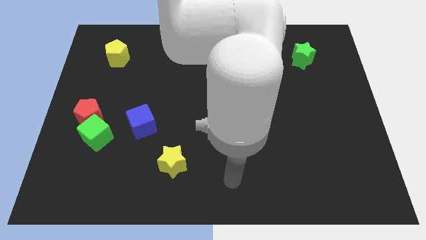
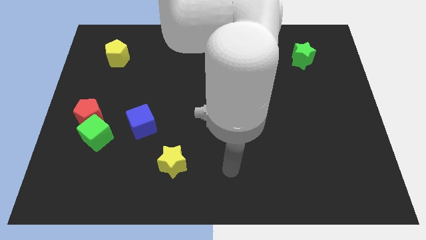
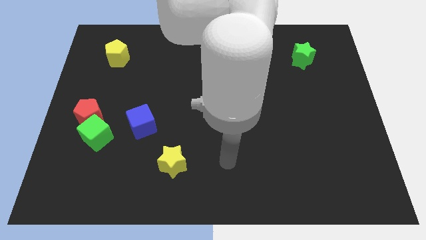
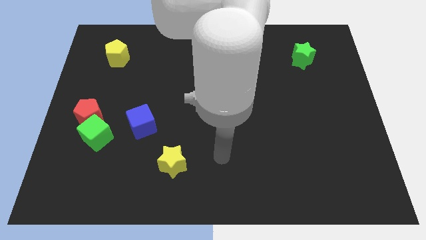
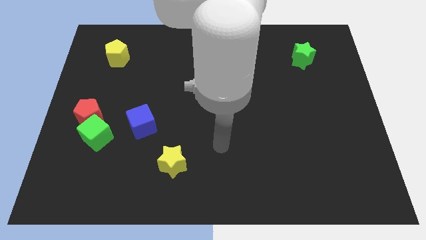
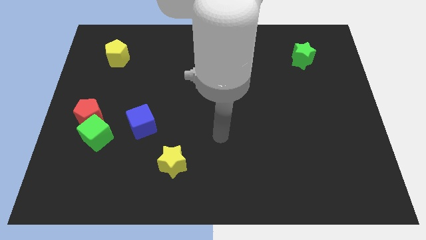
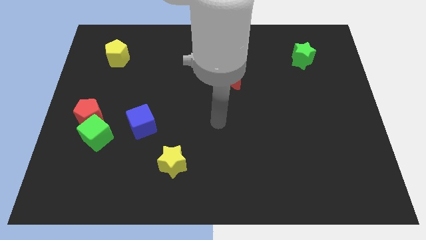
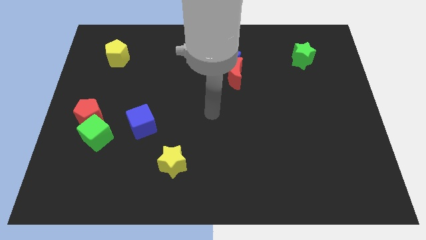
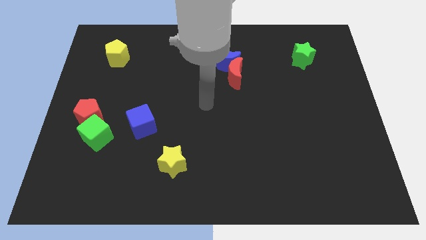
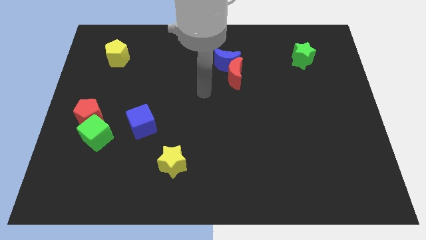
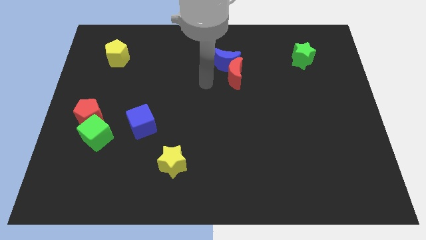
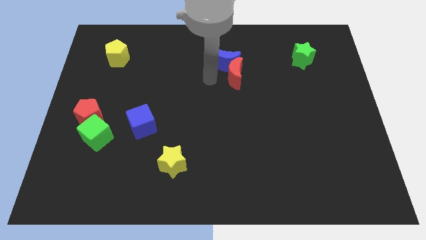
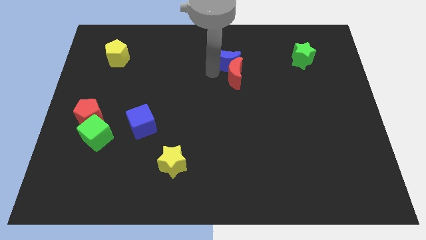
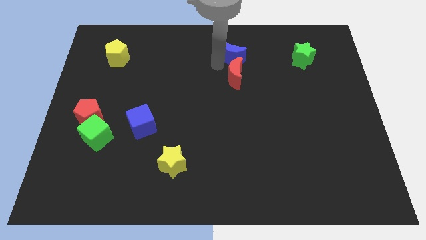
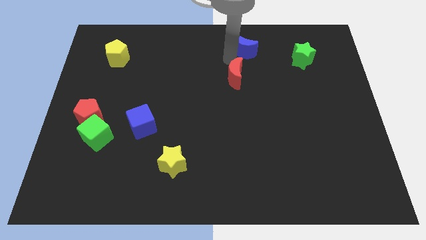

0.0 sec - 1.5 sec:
pull the red moon apart from the blue moon

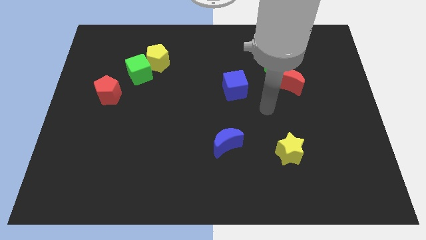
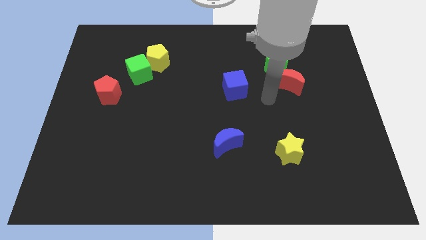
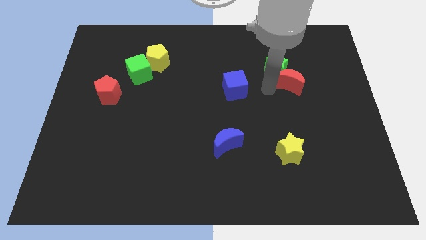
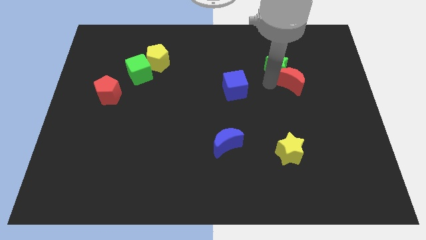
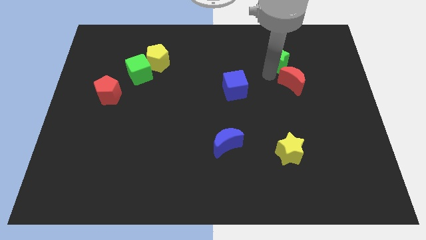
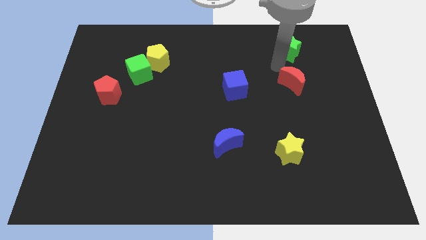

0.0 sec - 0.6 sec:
pull the red moon apart from the green star

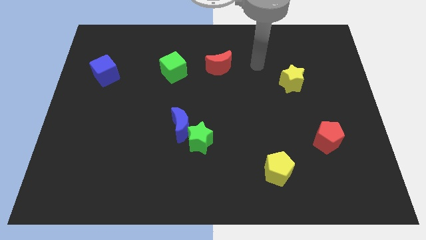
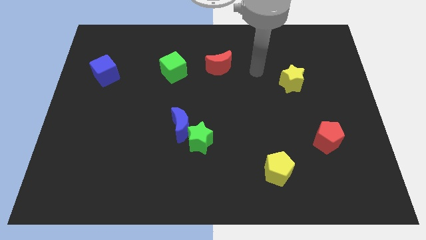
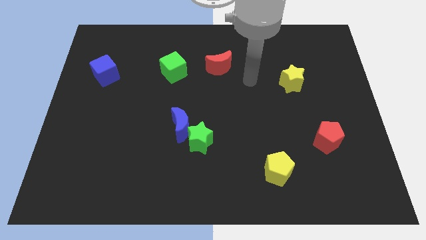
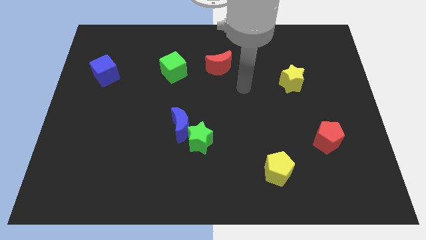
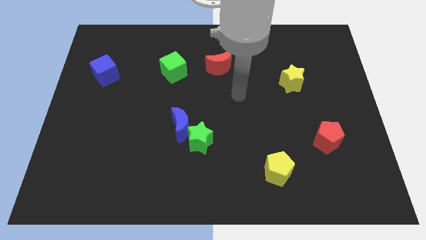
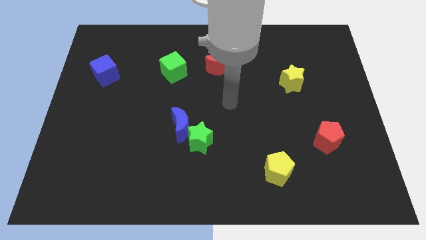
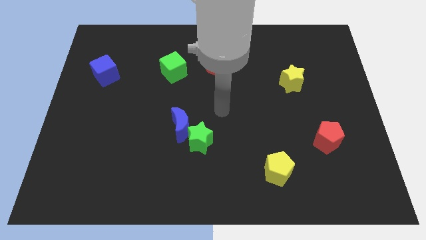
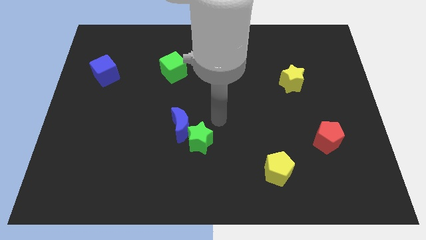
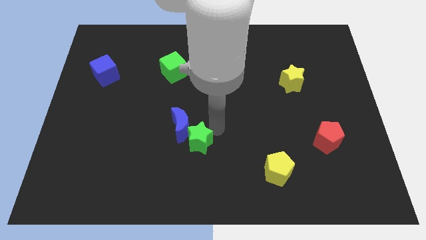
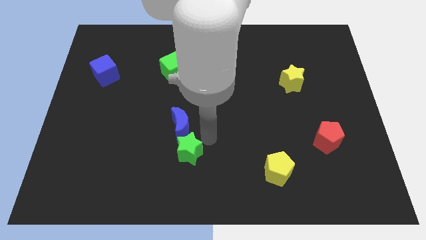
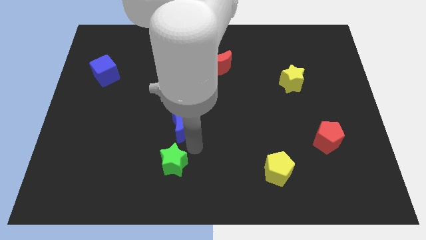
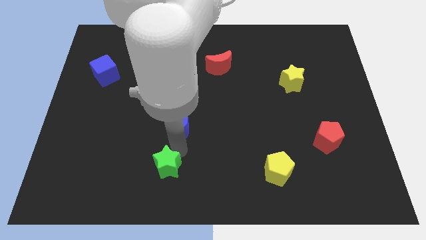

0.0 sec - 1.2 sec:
move the blue moon away from the green star

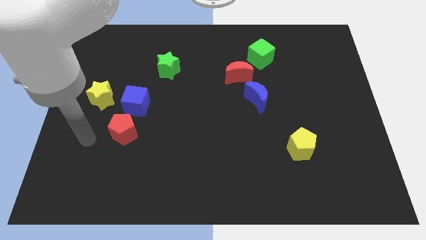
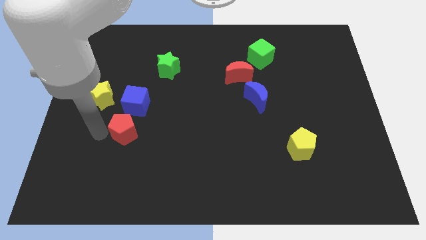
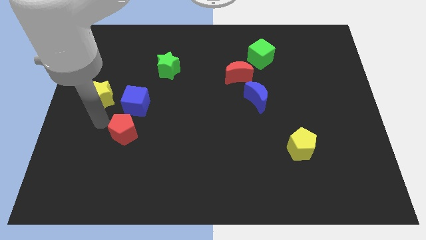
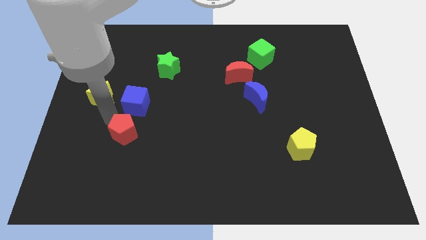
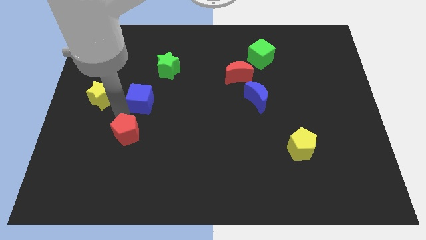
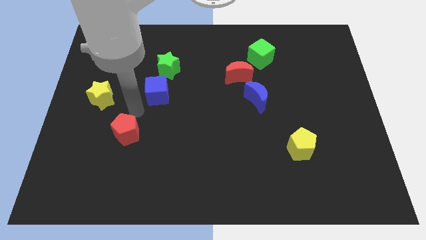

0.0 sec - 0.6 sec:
pull the red pentagon apart from the blue cube

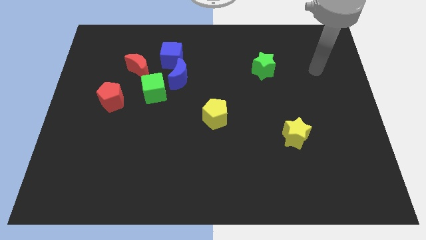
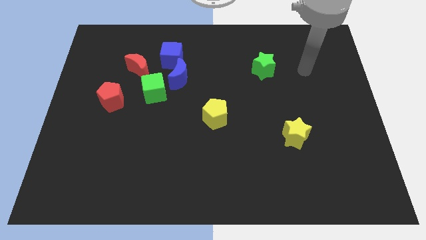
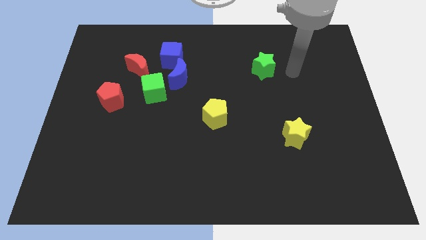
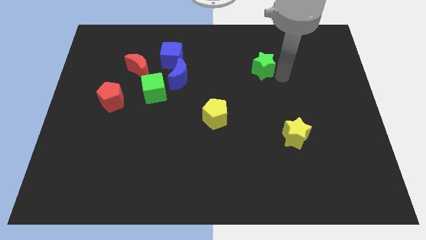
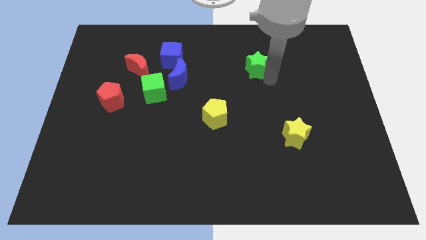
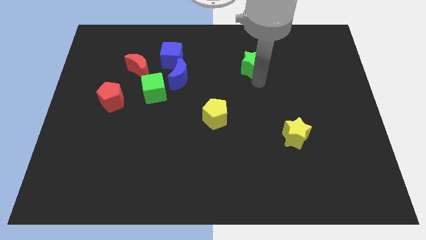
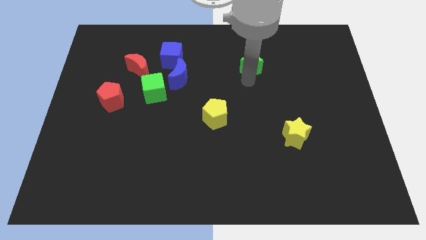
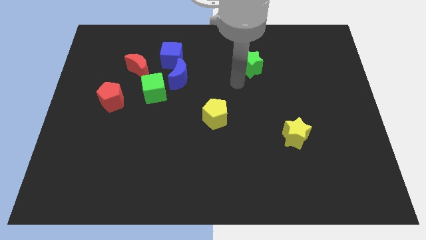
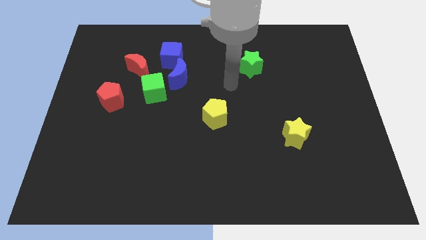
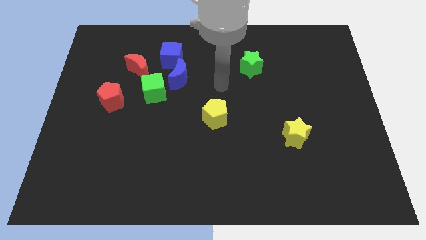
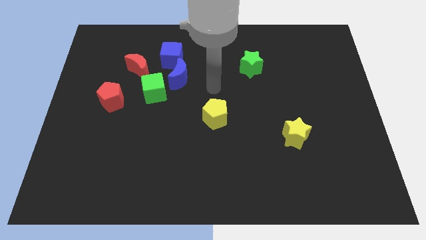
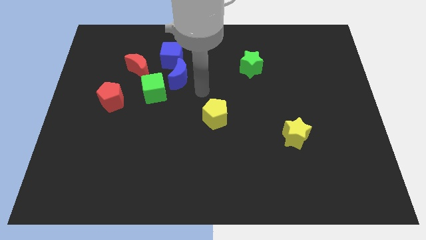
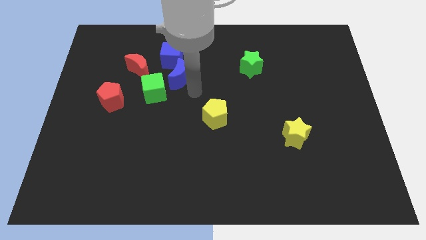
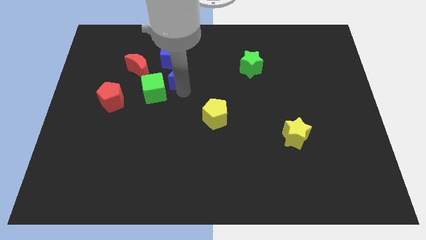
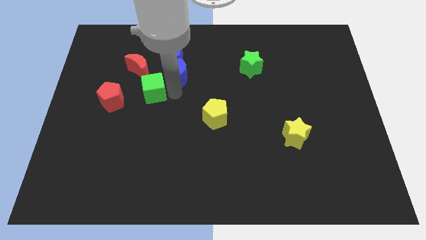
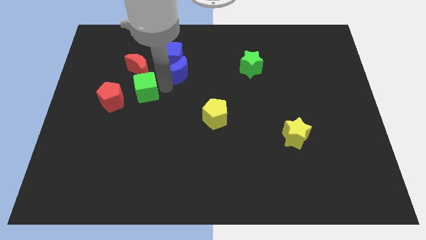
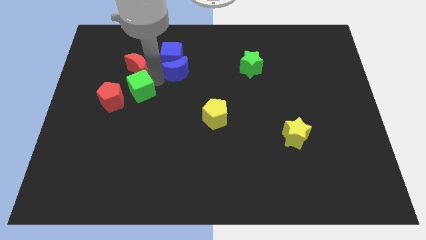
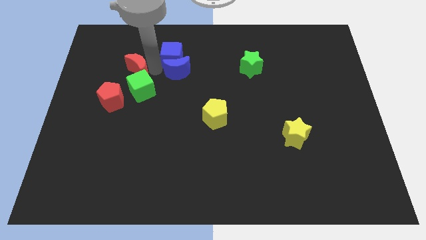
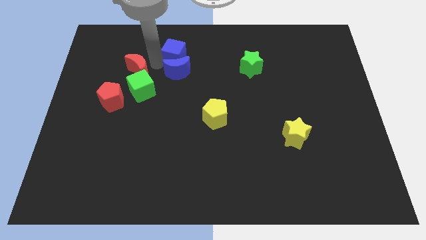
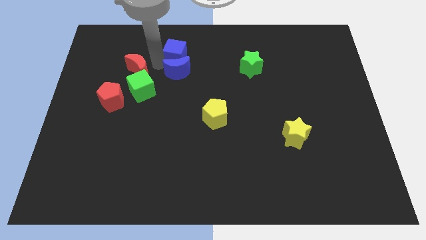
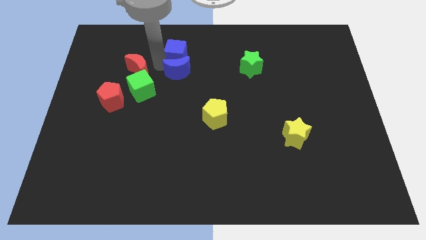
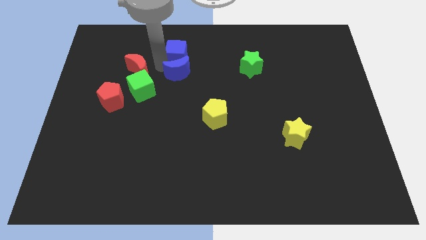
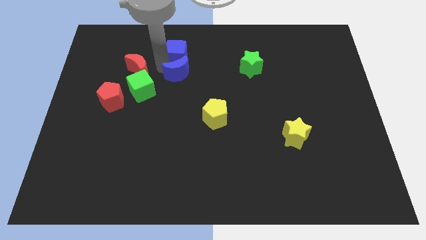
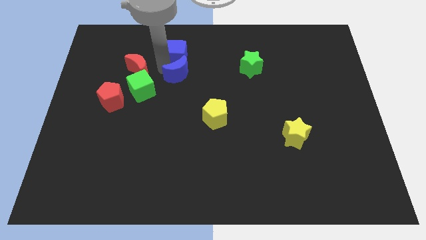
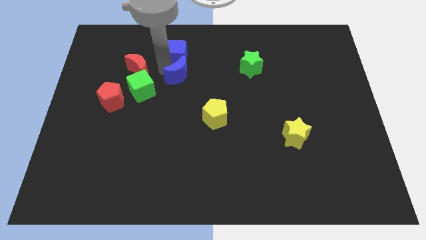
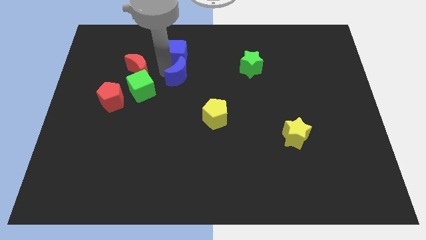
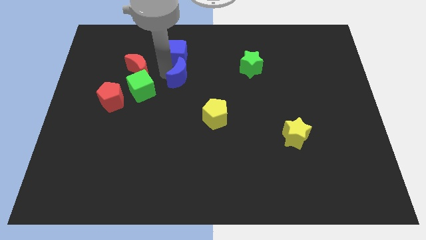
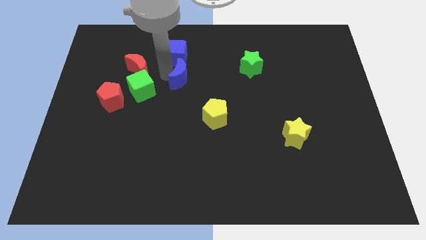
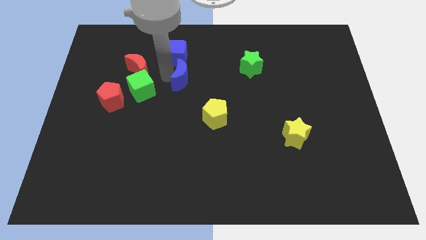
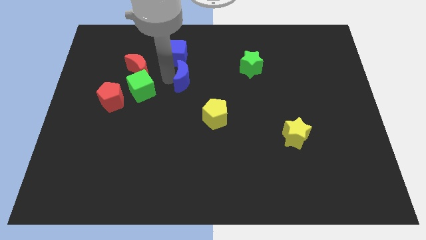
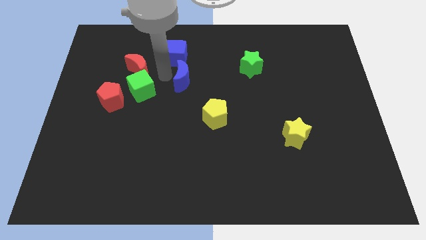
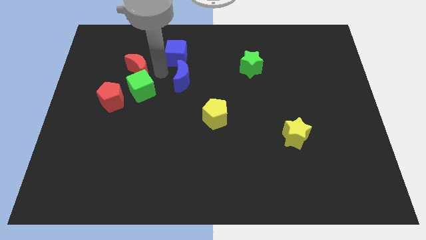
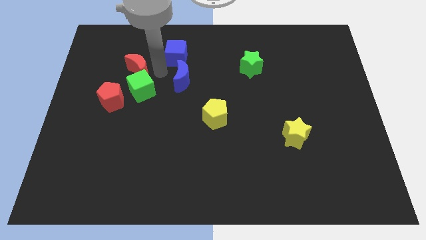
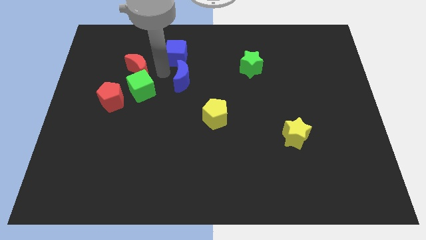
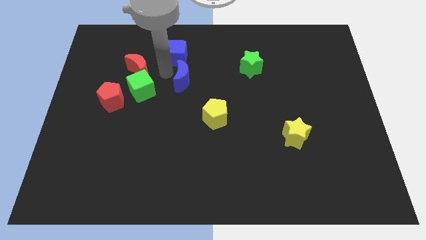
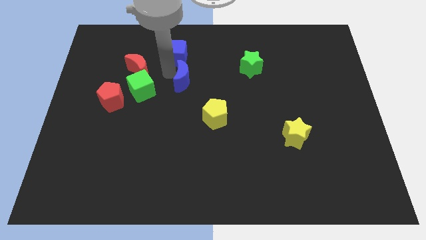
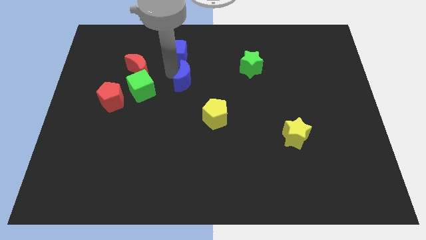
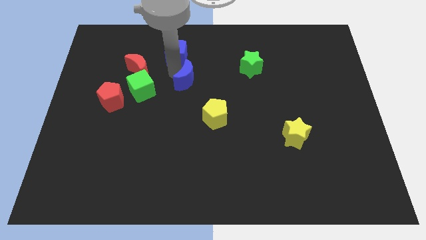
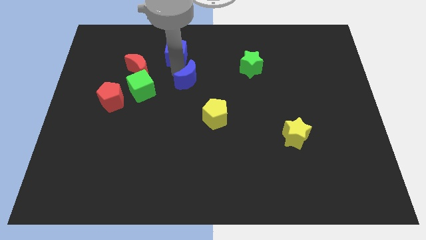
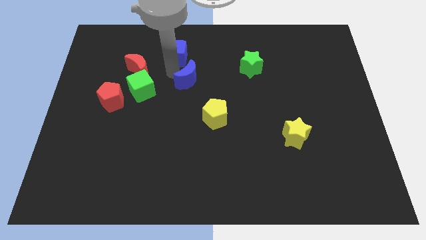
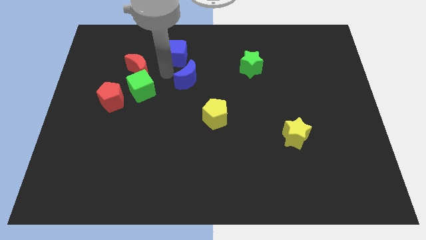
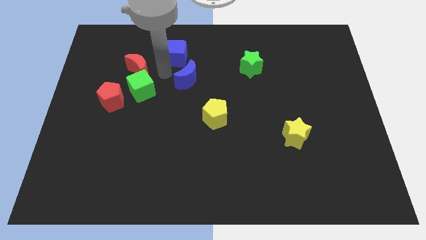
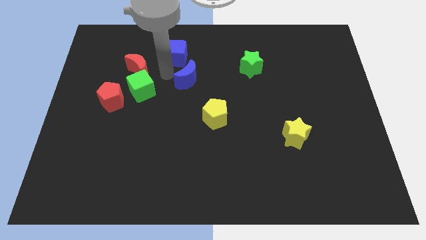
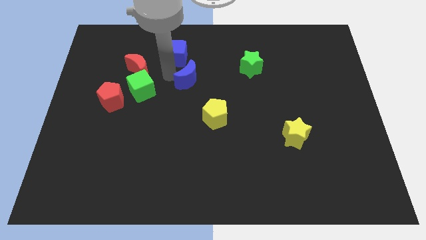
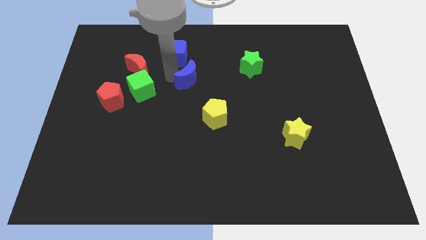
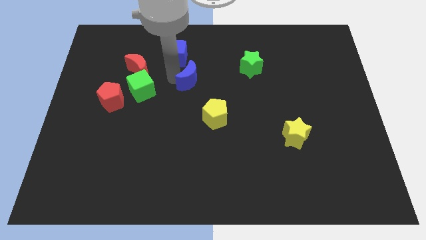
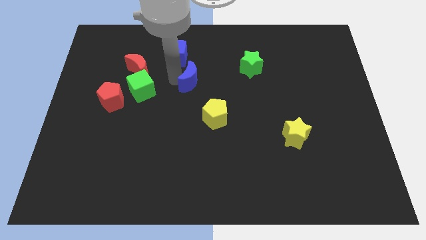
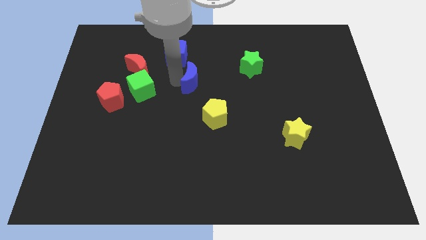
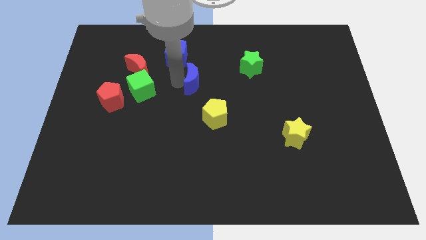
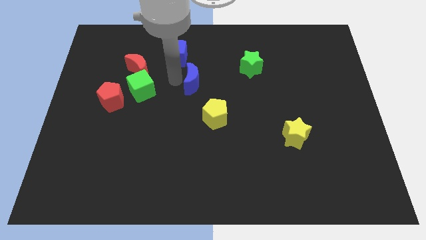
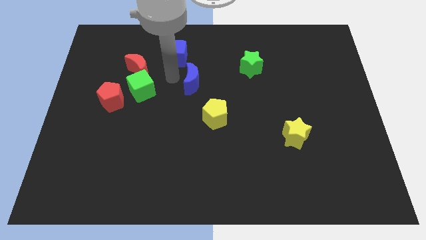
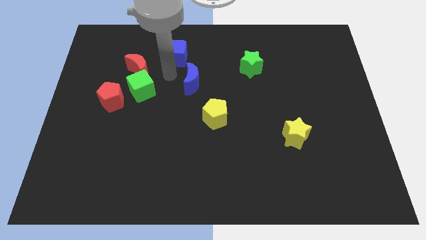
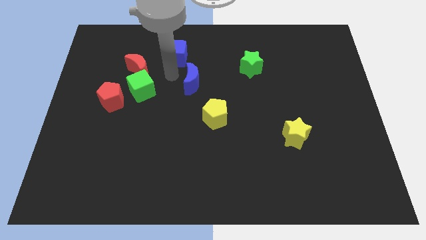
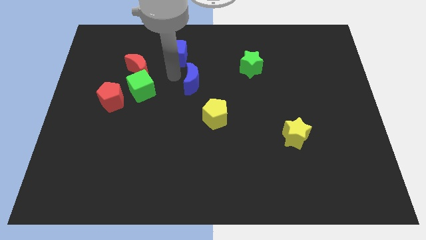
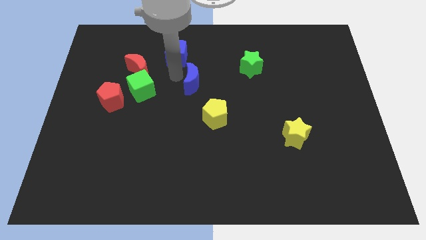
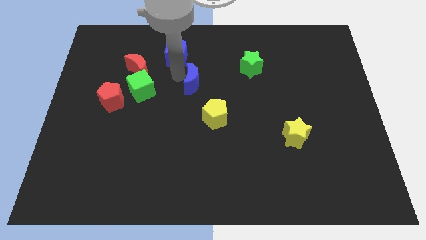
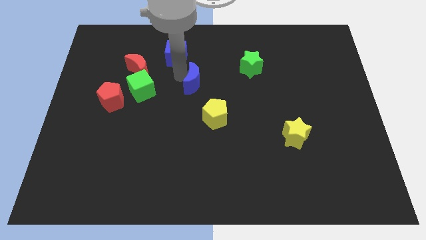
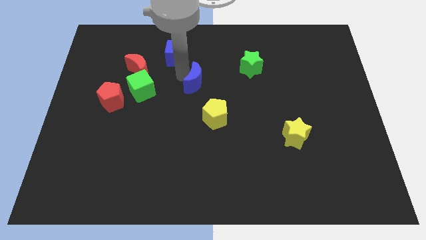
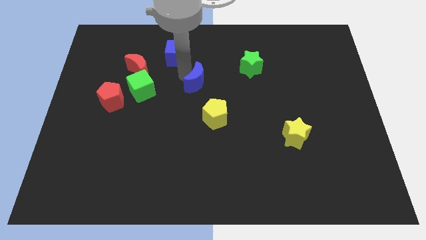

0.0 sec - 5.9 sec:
separate the blue moon from the blue cube and green cube
